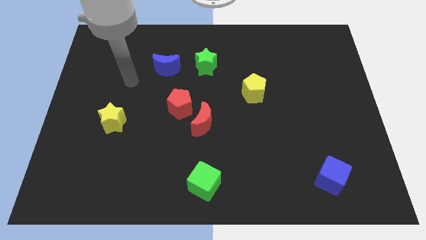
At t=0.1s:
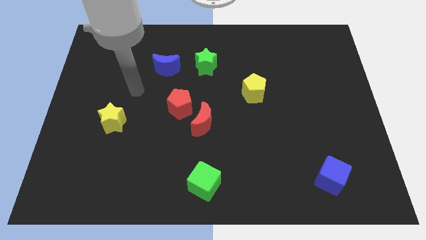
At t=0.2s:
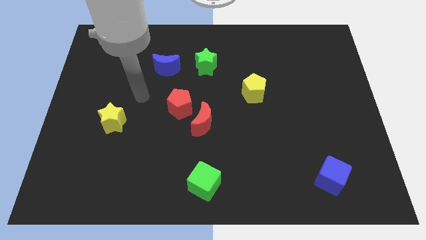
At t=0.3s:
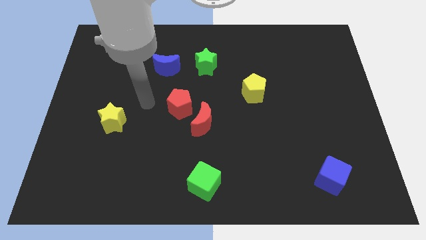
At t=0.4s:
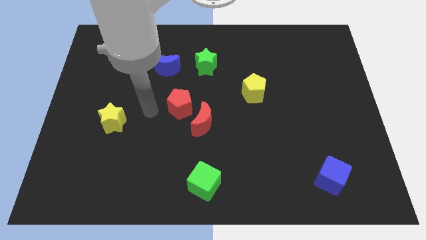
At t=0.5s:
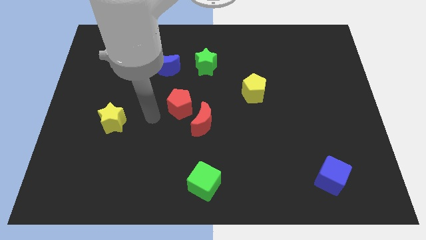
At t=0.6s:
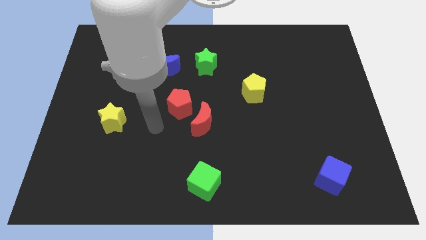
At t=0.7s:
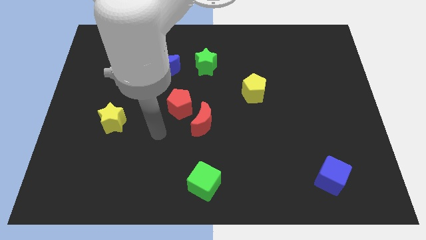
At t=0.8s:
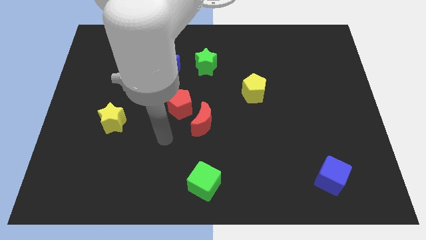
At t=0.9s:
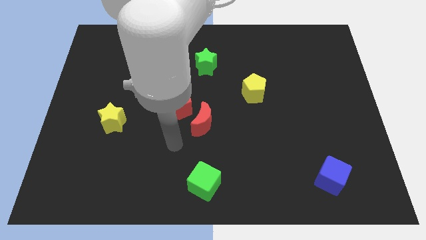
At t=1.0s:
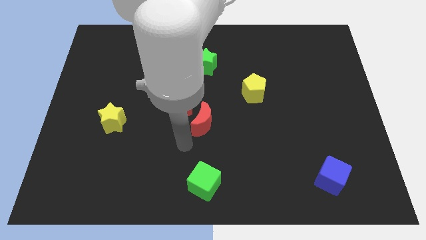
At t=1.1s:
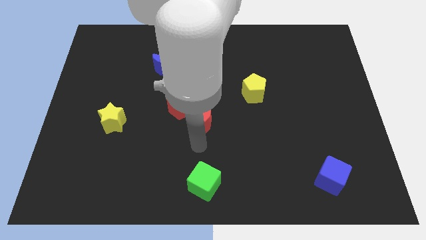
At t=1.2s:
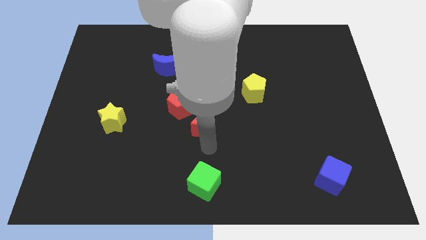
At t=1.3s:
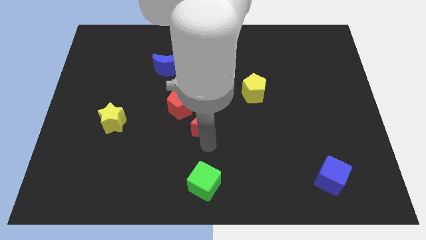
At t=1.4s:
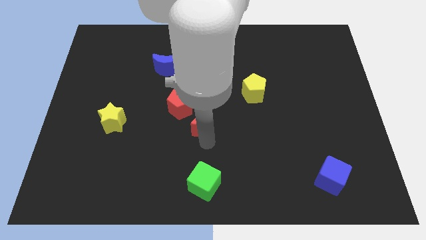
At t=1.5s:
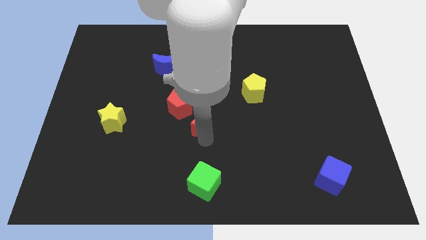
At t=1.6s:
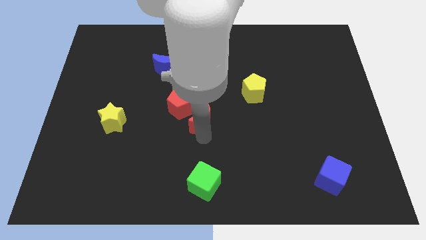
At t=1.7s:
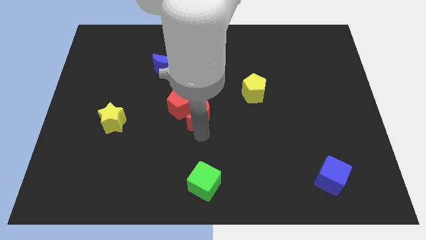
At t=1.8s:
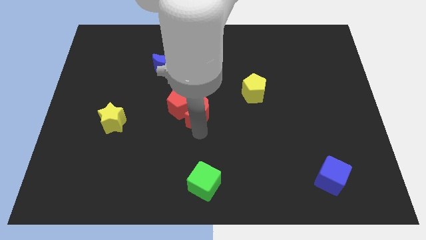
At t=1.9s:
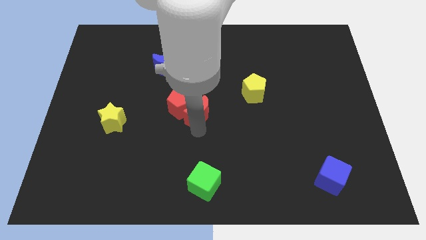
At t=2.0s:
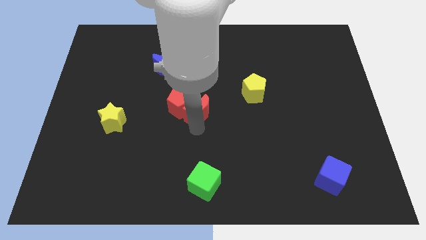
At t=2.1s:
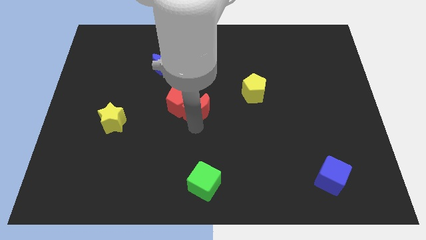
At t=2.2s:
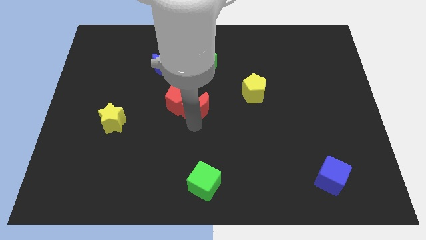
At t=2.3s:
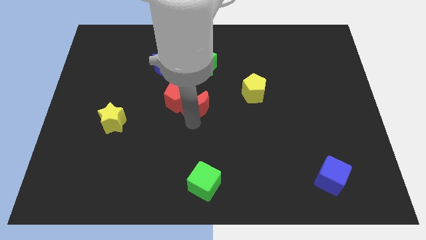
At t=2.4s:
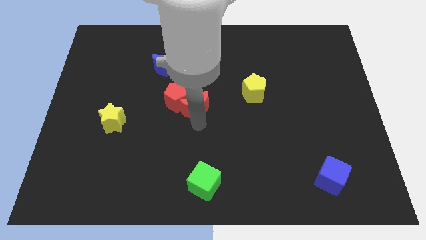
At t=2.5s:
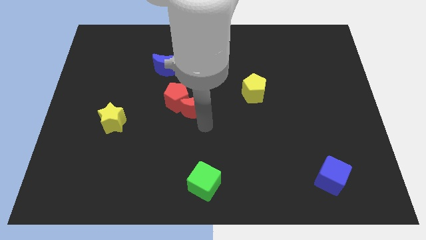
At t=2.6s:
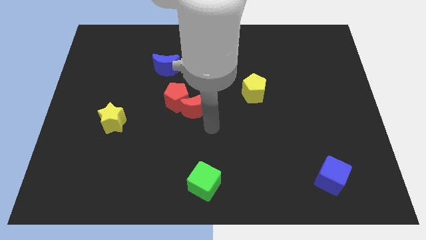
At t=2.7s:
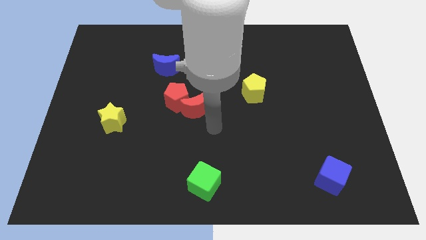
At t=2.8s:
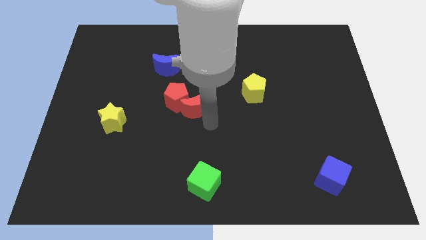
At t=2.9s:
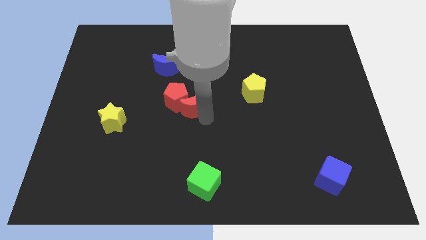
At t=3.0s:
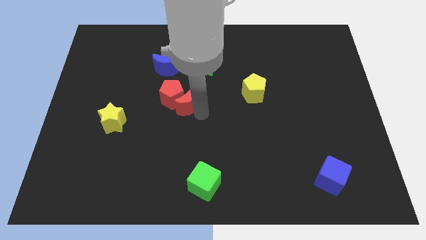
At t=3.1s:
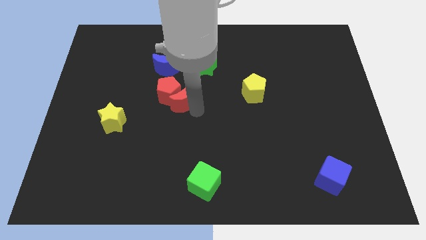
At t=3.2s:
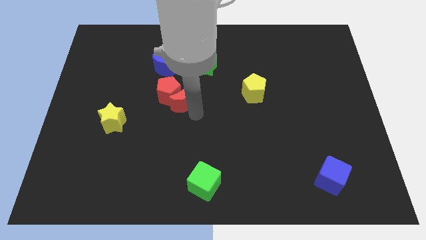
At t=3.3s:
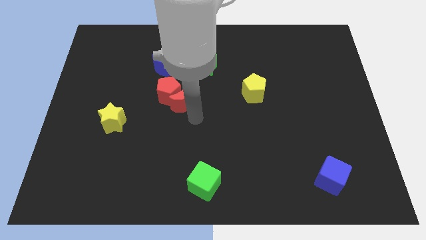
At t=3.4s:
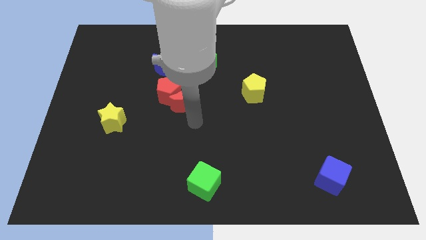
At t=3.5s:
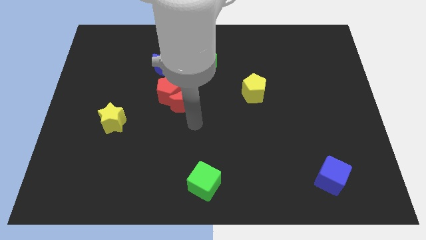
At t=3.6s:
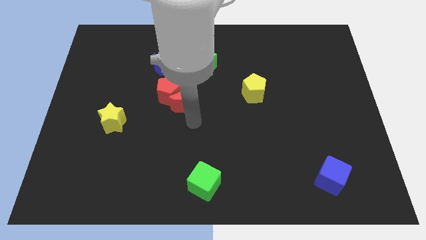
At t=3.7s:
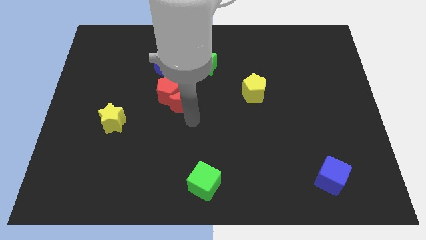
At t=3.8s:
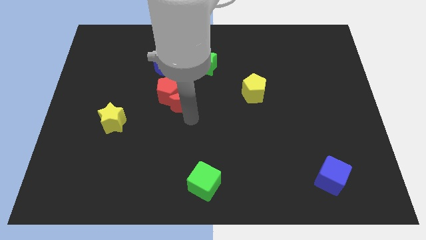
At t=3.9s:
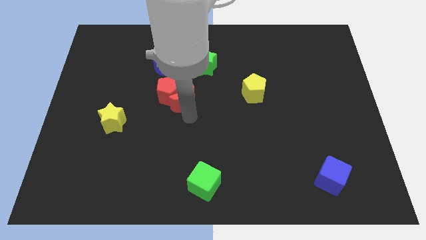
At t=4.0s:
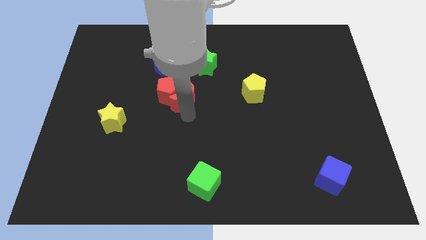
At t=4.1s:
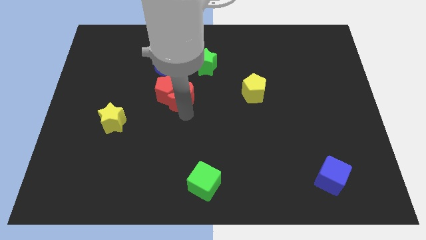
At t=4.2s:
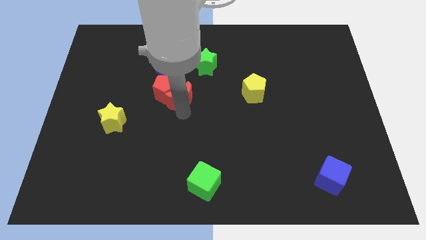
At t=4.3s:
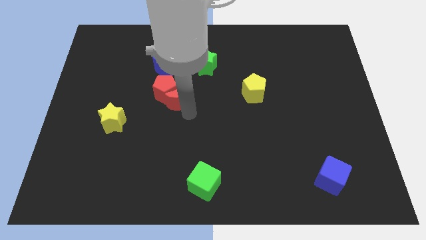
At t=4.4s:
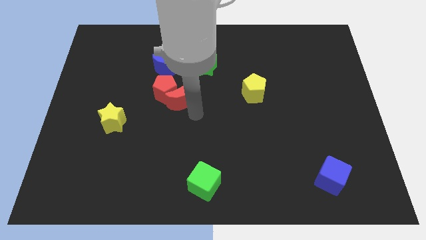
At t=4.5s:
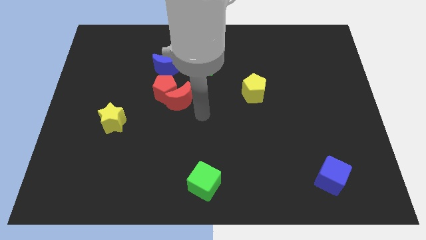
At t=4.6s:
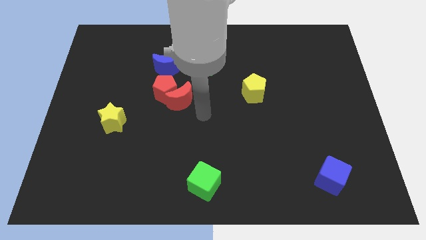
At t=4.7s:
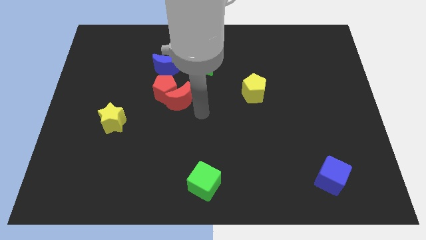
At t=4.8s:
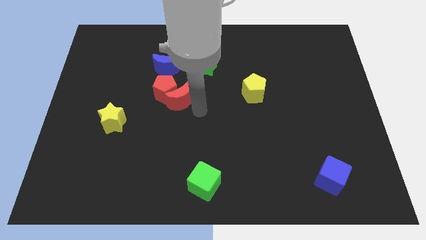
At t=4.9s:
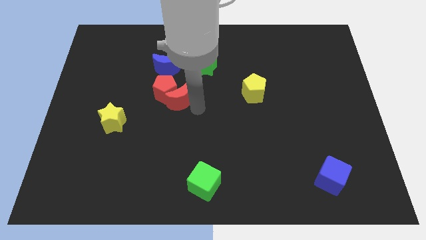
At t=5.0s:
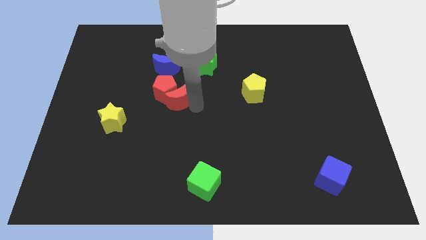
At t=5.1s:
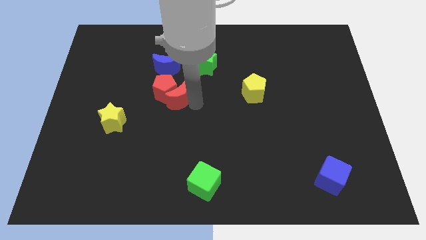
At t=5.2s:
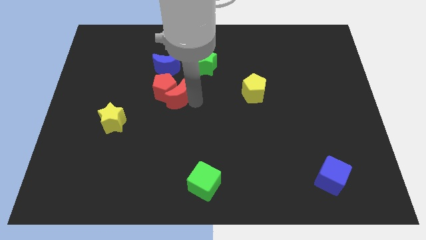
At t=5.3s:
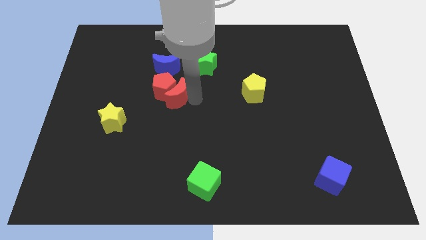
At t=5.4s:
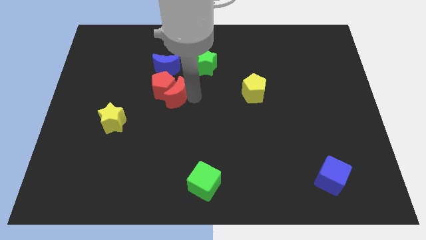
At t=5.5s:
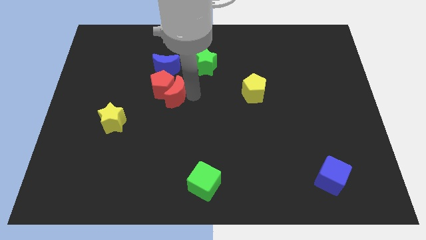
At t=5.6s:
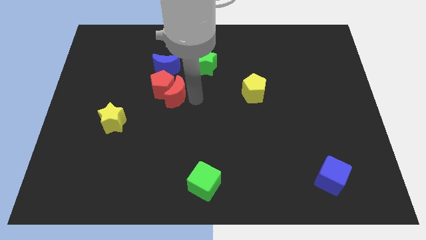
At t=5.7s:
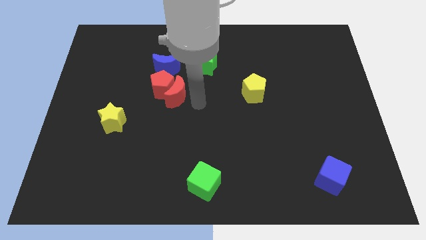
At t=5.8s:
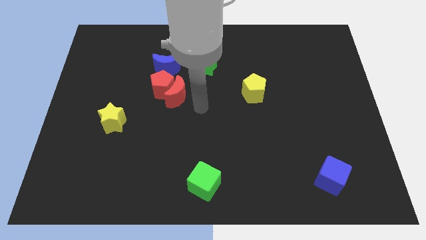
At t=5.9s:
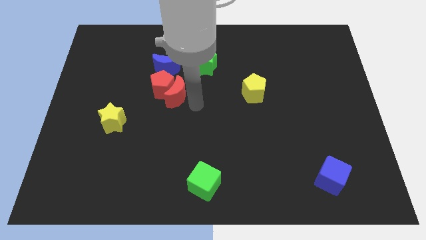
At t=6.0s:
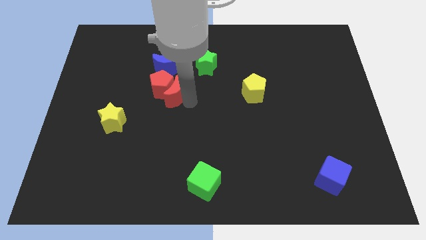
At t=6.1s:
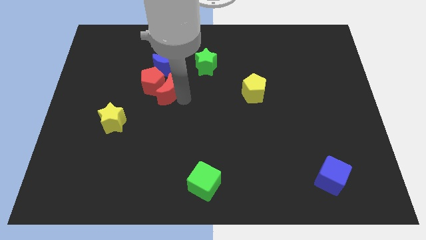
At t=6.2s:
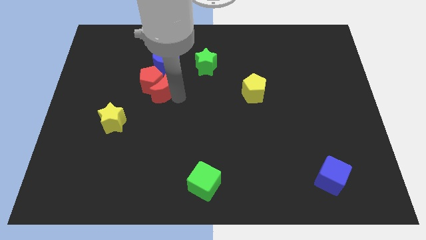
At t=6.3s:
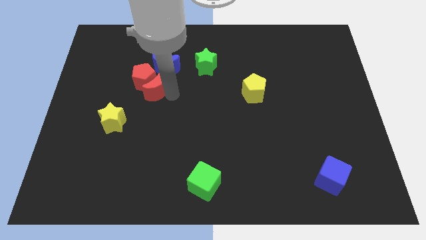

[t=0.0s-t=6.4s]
slide the red moon to the bottom left side of the blue moon

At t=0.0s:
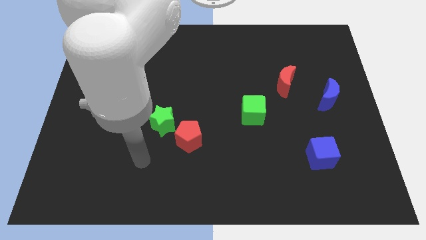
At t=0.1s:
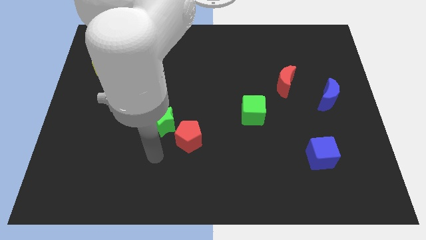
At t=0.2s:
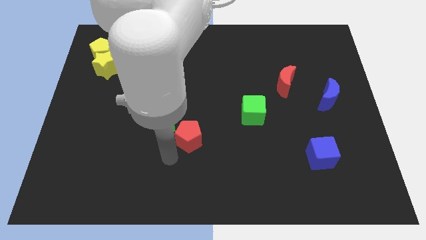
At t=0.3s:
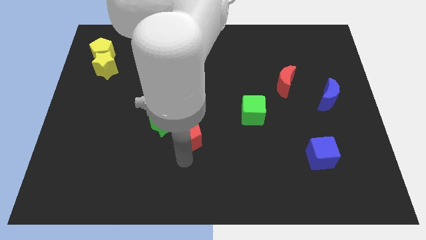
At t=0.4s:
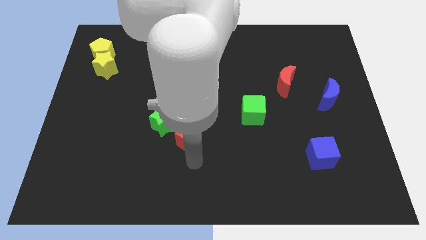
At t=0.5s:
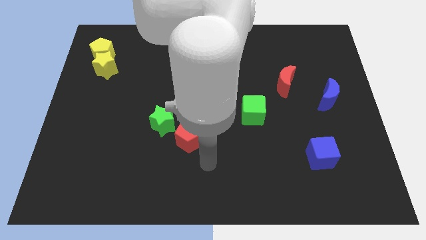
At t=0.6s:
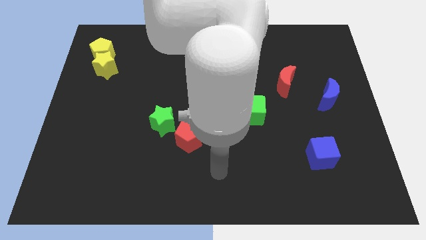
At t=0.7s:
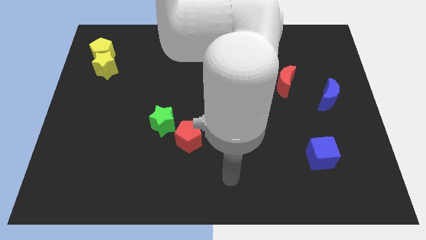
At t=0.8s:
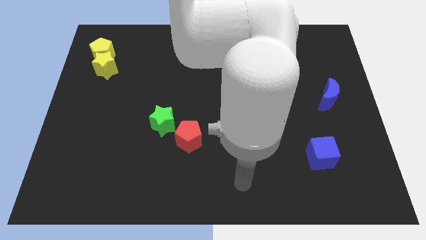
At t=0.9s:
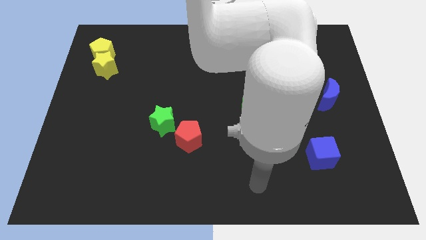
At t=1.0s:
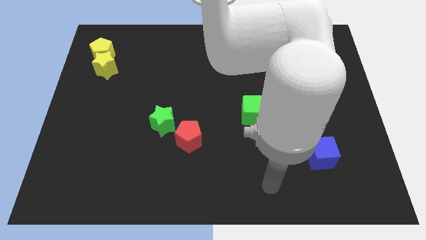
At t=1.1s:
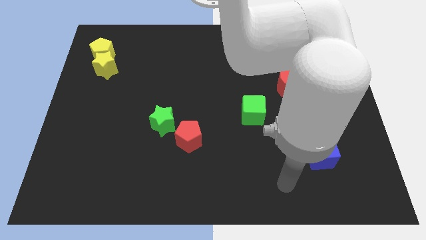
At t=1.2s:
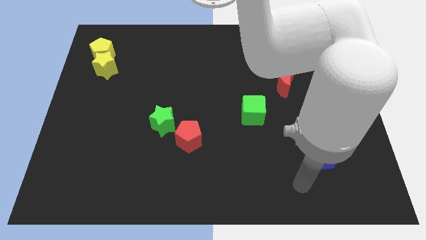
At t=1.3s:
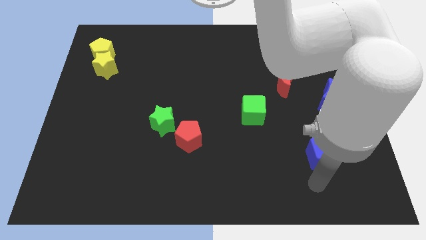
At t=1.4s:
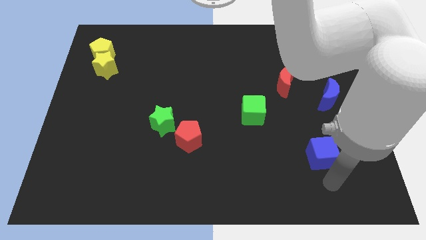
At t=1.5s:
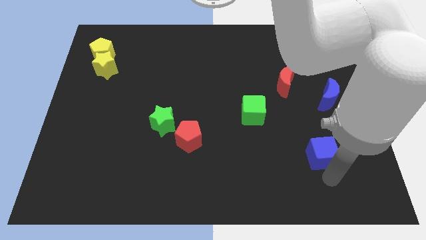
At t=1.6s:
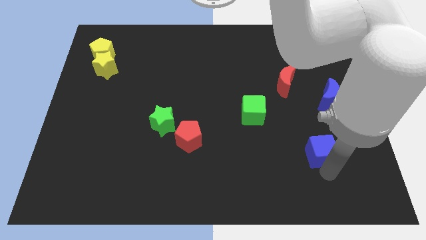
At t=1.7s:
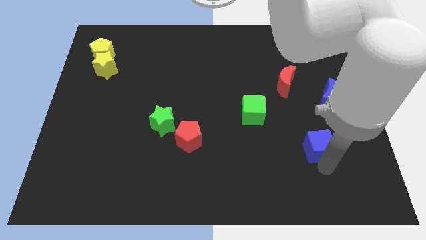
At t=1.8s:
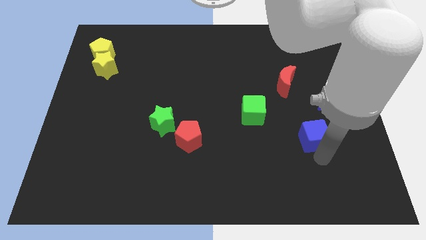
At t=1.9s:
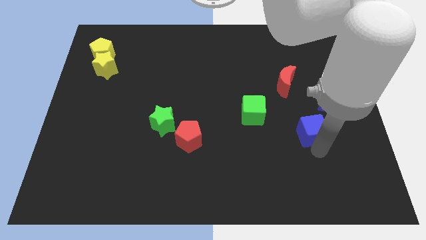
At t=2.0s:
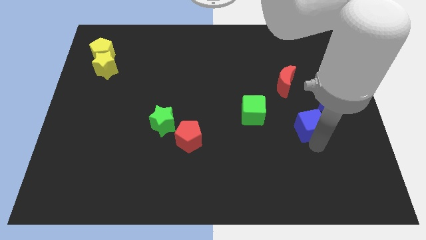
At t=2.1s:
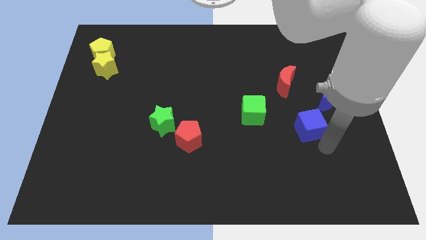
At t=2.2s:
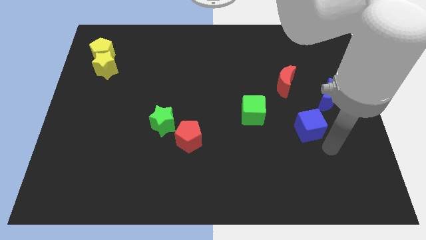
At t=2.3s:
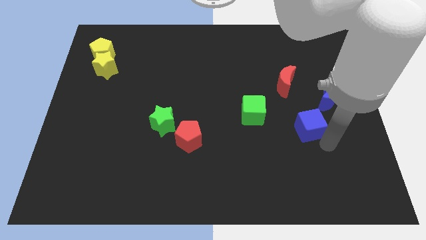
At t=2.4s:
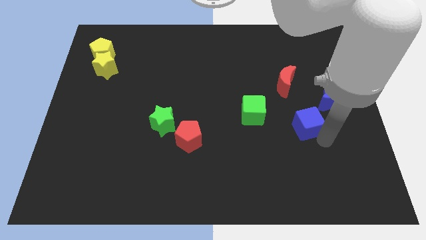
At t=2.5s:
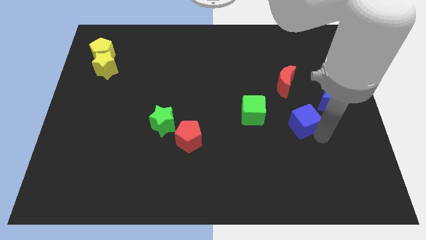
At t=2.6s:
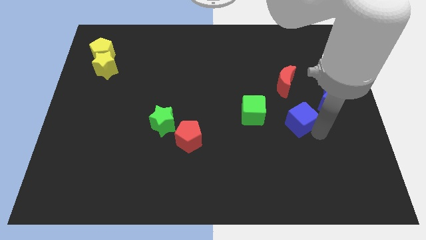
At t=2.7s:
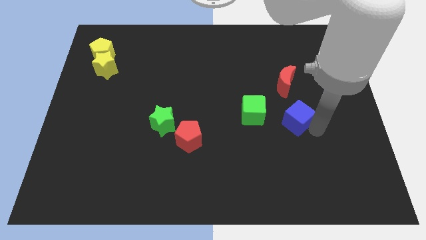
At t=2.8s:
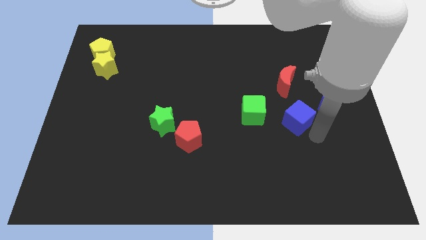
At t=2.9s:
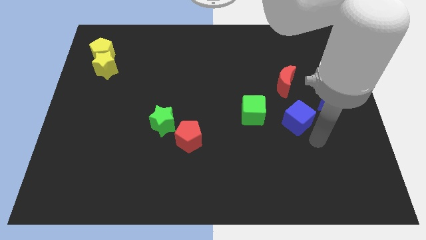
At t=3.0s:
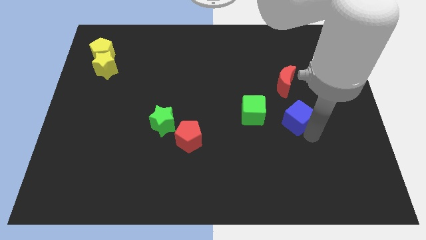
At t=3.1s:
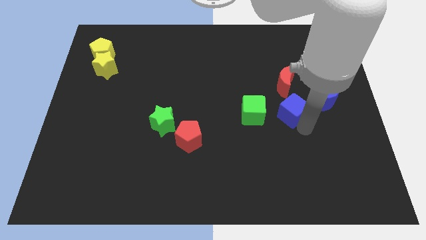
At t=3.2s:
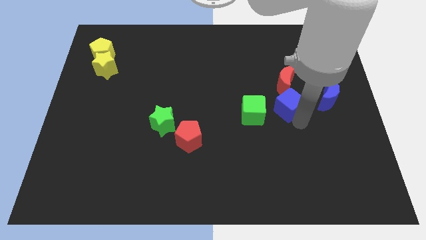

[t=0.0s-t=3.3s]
move the blue cube diagonally up and to the right of the green cube
